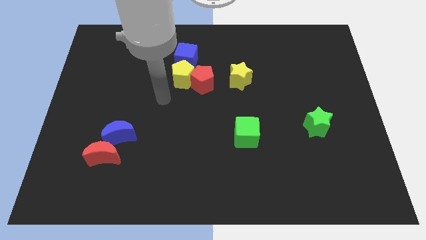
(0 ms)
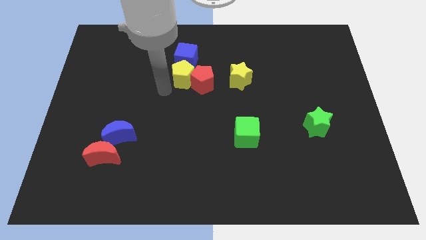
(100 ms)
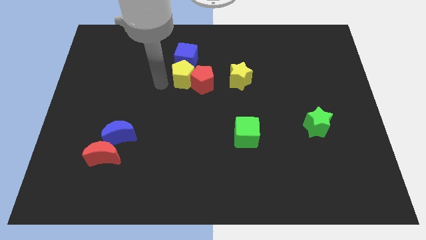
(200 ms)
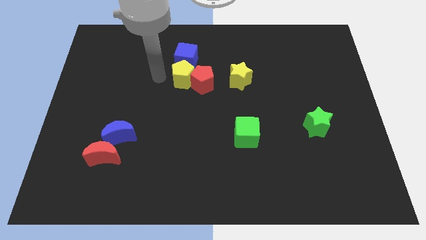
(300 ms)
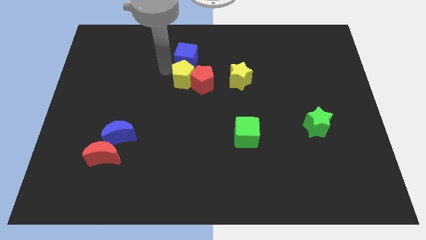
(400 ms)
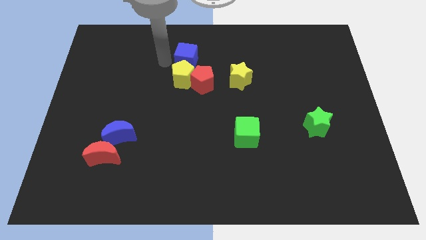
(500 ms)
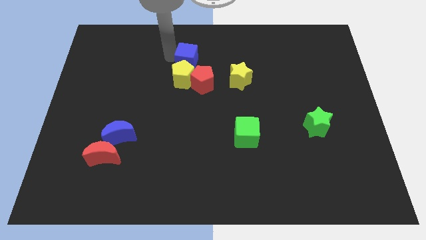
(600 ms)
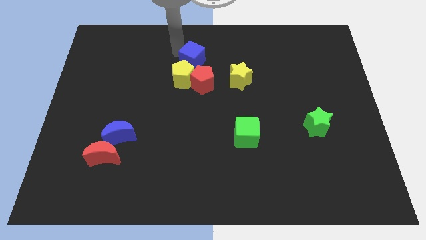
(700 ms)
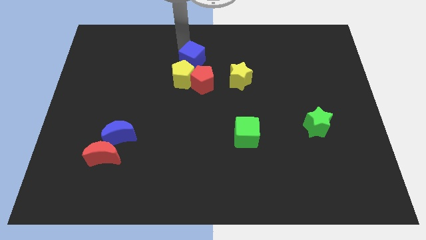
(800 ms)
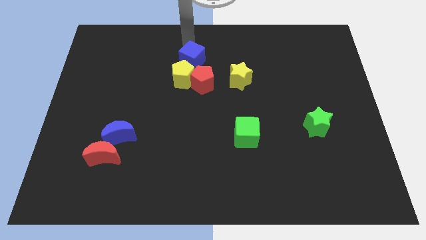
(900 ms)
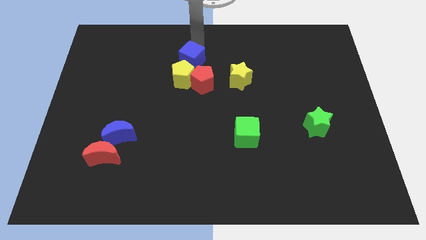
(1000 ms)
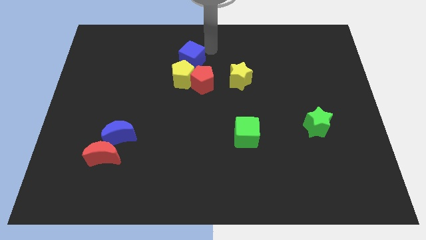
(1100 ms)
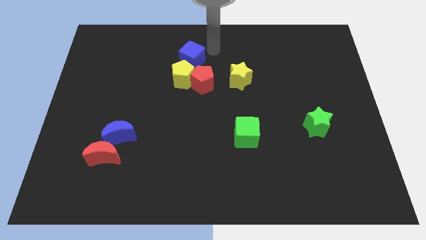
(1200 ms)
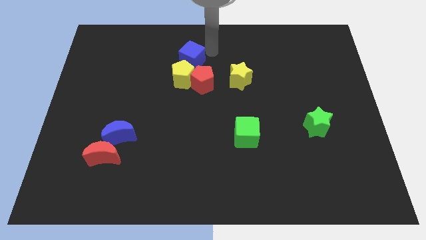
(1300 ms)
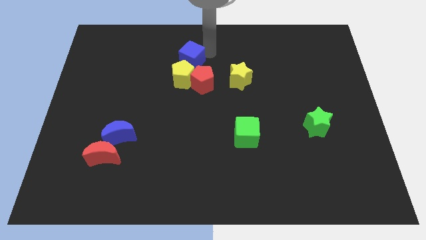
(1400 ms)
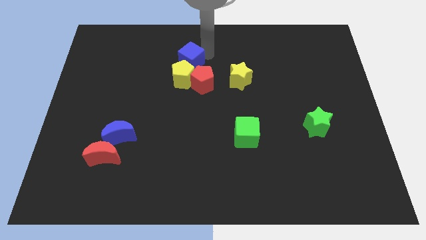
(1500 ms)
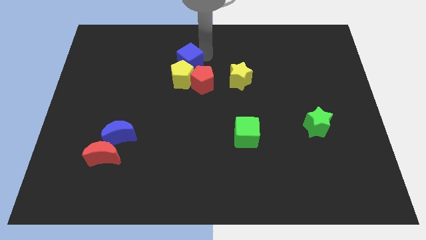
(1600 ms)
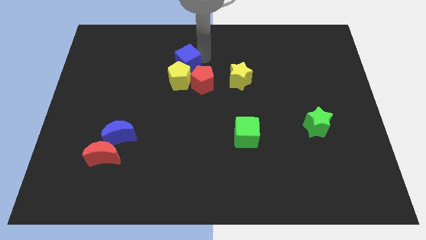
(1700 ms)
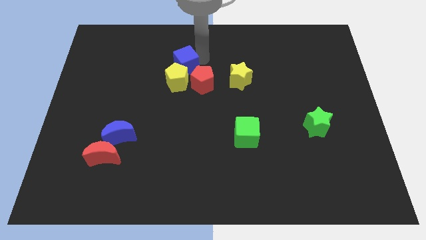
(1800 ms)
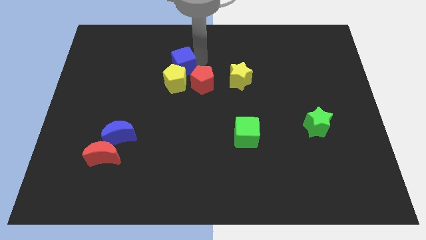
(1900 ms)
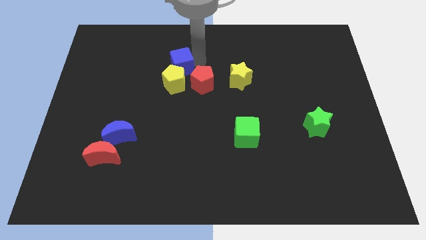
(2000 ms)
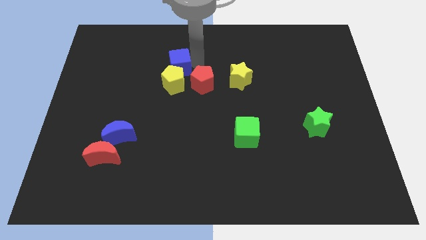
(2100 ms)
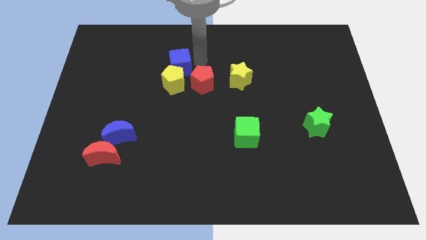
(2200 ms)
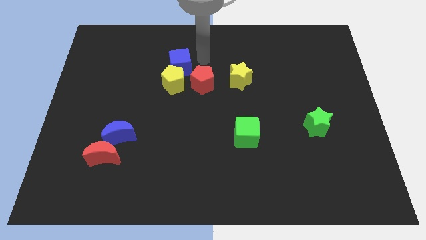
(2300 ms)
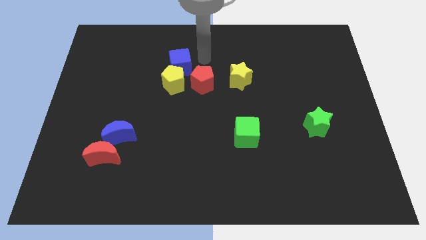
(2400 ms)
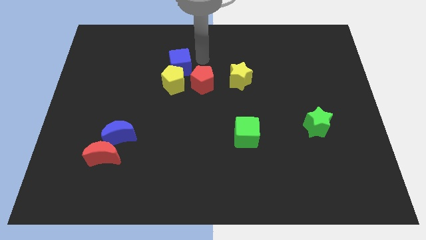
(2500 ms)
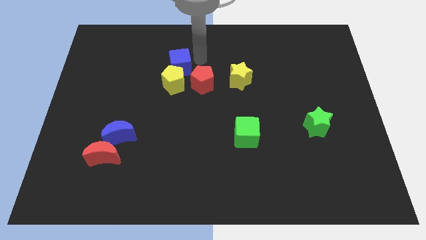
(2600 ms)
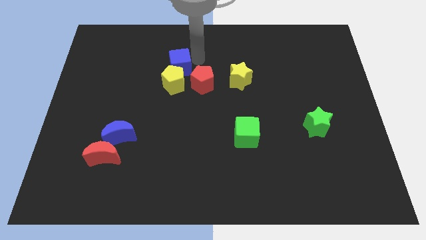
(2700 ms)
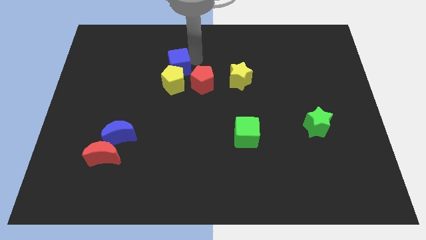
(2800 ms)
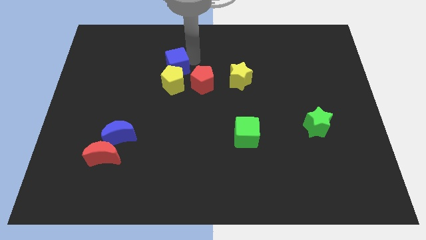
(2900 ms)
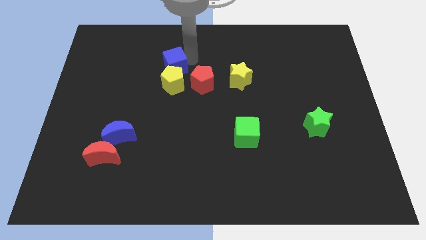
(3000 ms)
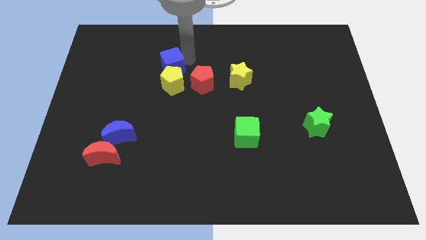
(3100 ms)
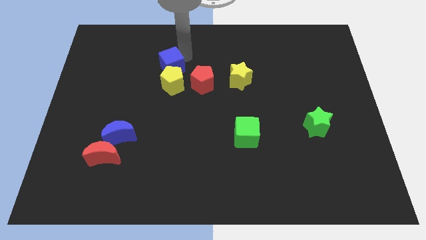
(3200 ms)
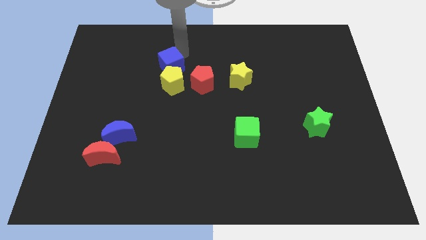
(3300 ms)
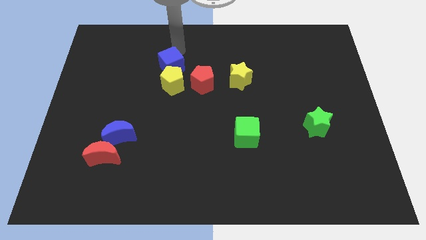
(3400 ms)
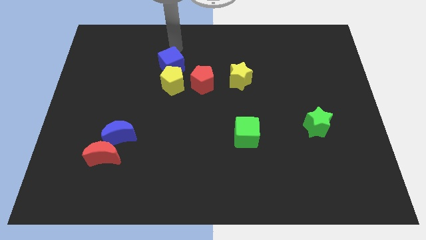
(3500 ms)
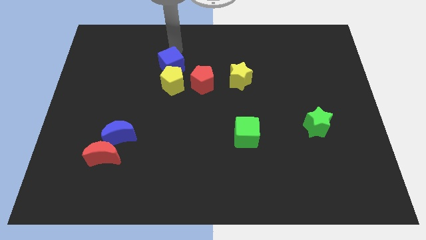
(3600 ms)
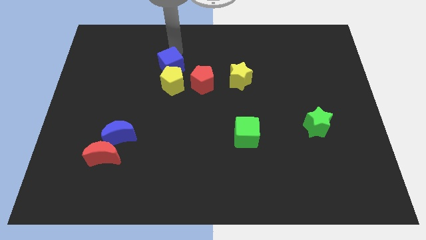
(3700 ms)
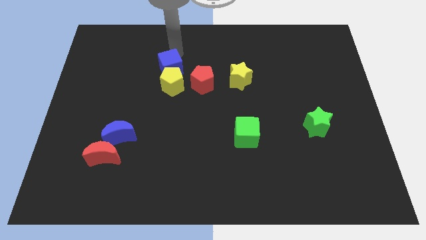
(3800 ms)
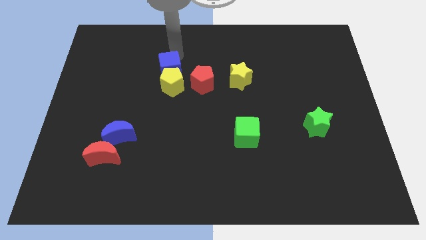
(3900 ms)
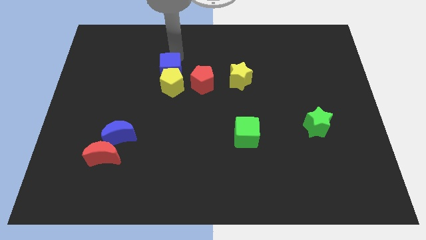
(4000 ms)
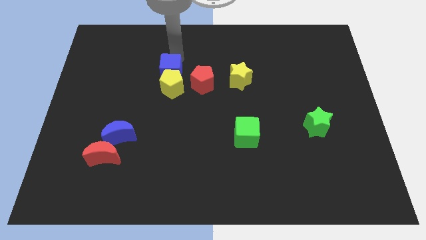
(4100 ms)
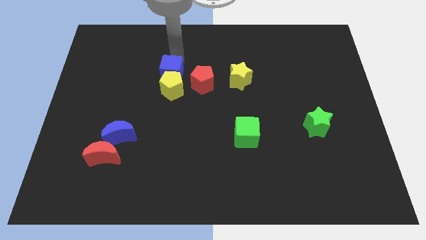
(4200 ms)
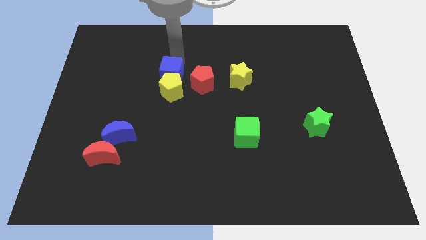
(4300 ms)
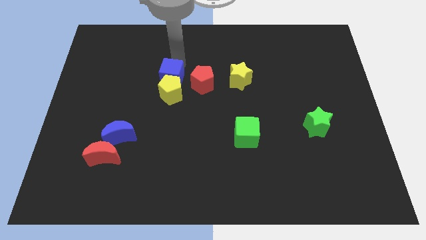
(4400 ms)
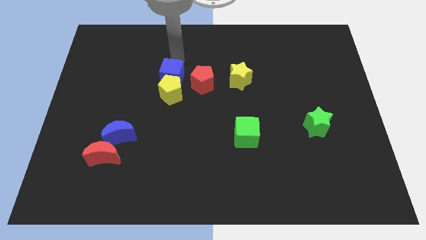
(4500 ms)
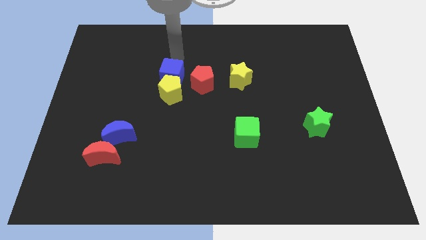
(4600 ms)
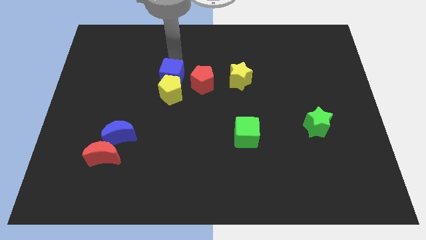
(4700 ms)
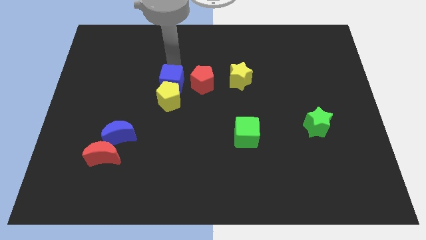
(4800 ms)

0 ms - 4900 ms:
push the blue cube slightly down

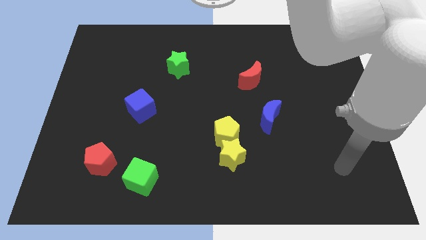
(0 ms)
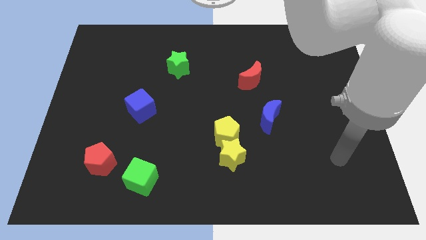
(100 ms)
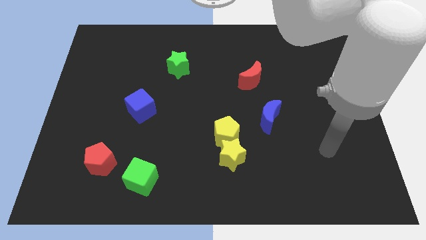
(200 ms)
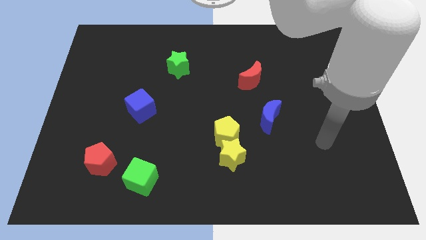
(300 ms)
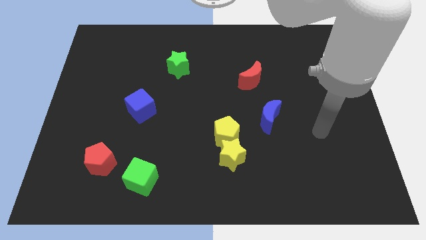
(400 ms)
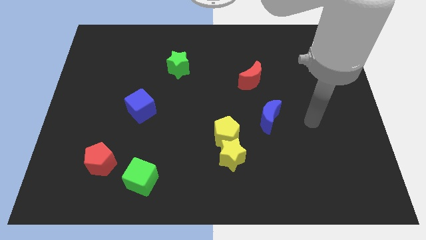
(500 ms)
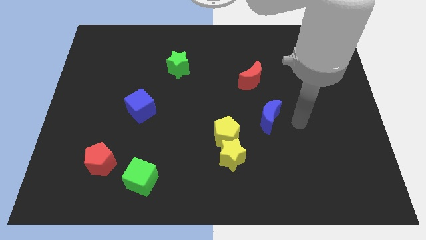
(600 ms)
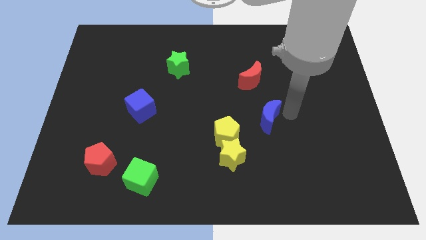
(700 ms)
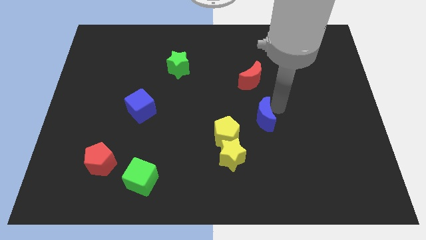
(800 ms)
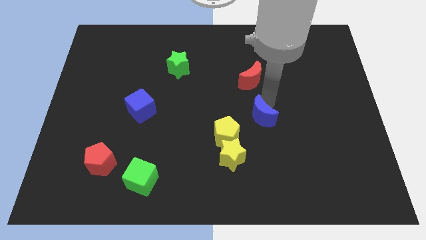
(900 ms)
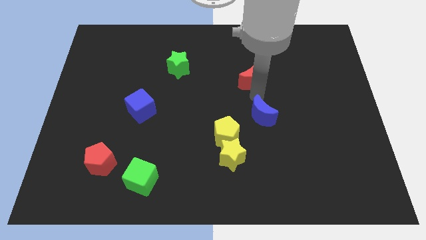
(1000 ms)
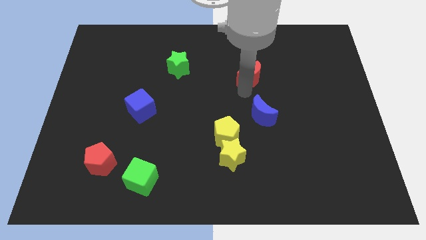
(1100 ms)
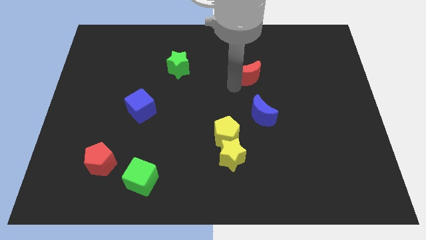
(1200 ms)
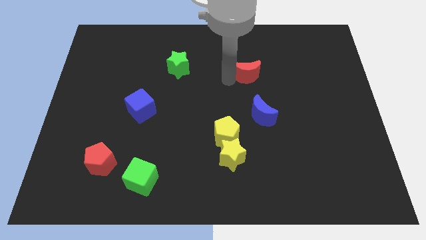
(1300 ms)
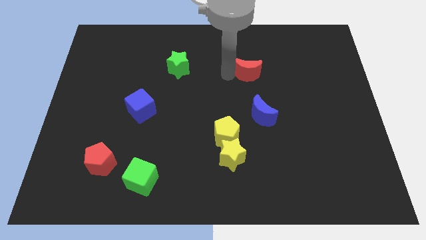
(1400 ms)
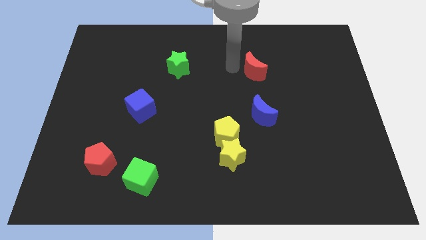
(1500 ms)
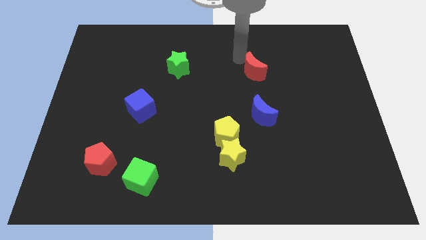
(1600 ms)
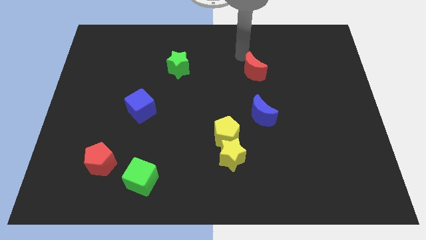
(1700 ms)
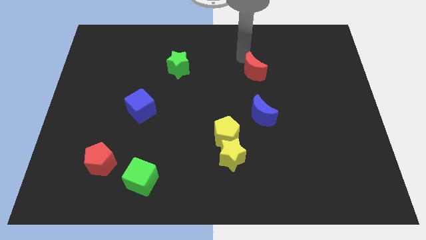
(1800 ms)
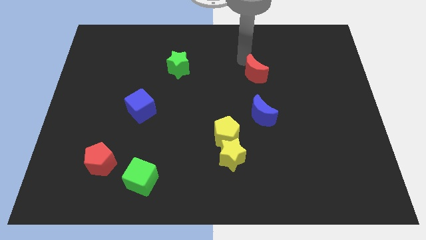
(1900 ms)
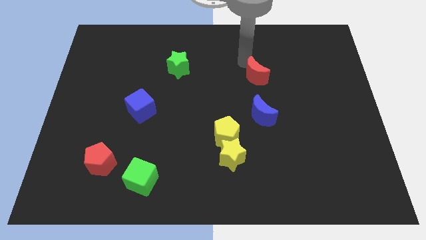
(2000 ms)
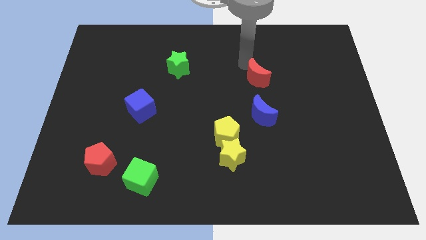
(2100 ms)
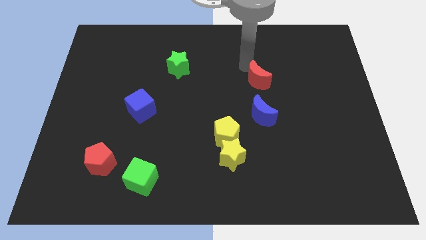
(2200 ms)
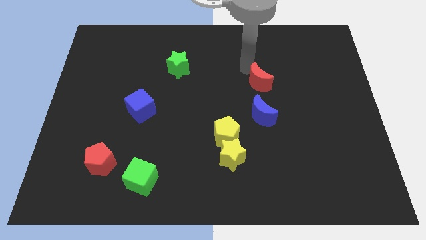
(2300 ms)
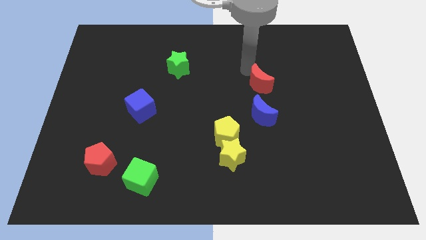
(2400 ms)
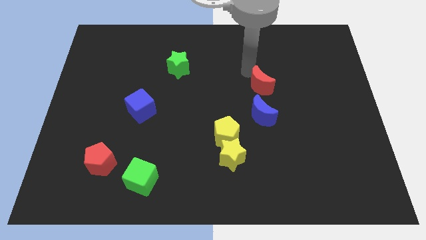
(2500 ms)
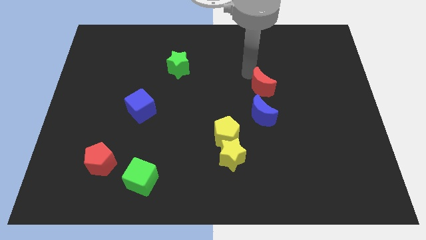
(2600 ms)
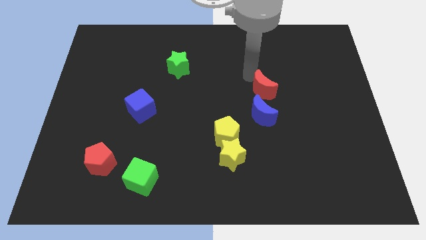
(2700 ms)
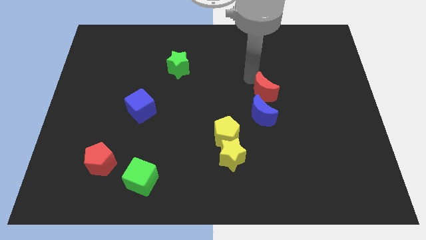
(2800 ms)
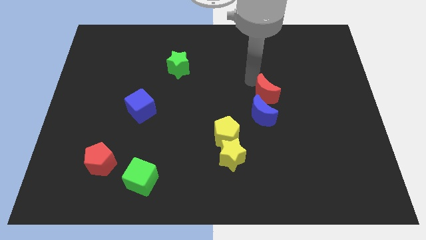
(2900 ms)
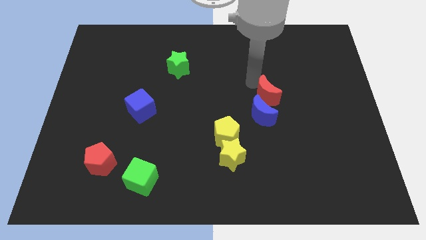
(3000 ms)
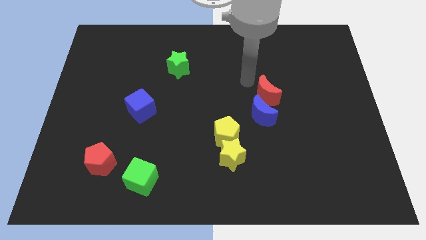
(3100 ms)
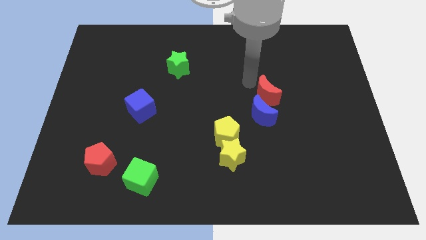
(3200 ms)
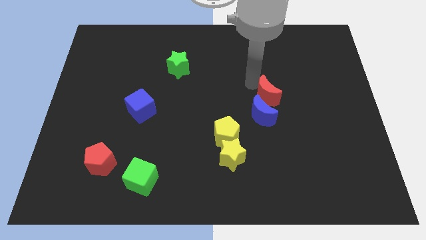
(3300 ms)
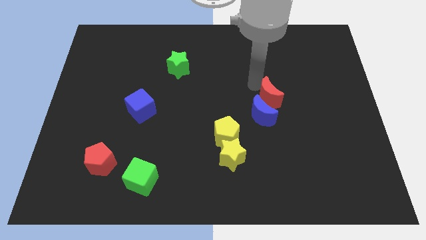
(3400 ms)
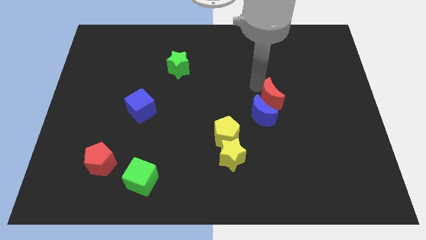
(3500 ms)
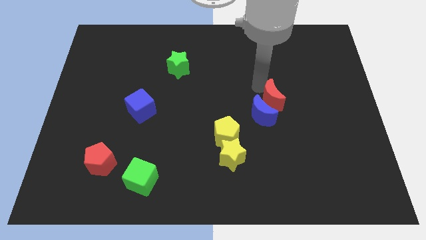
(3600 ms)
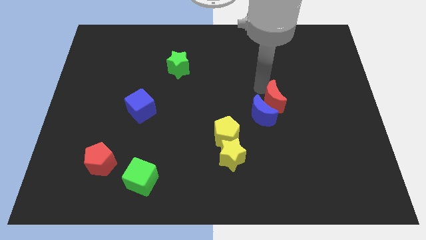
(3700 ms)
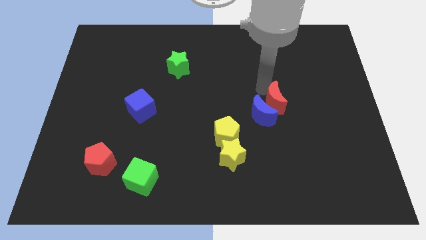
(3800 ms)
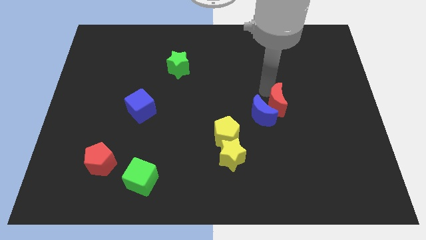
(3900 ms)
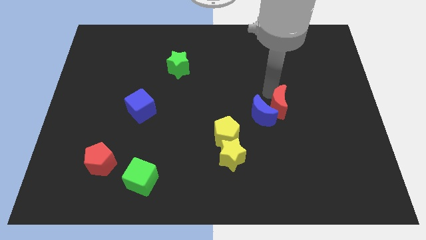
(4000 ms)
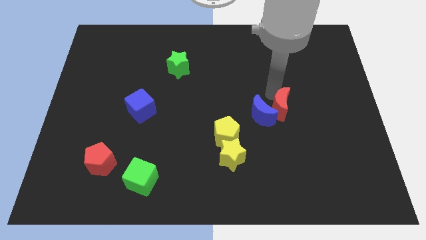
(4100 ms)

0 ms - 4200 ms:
push the red moon downwards a little
